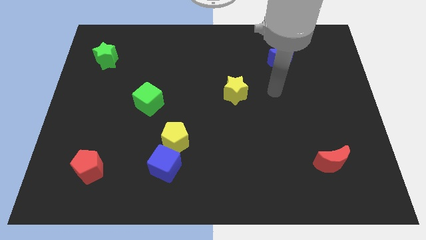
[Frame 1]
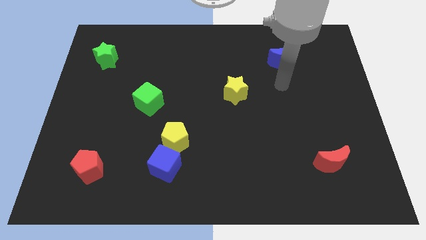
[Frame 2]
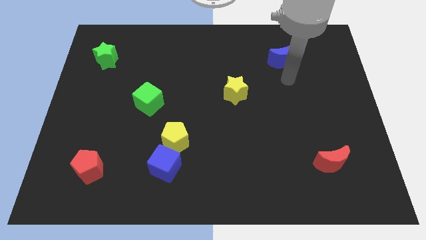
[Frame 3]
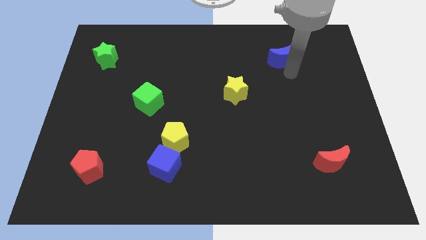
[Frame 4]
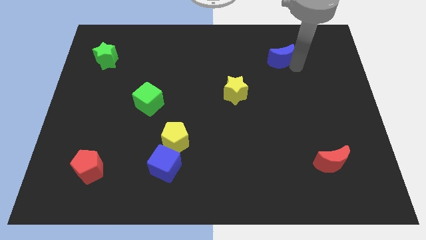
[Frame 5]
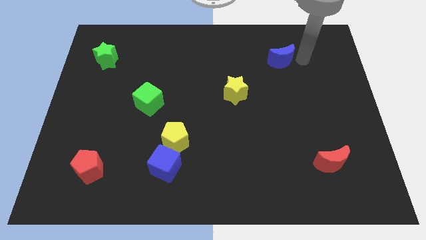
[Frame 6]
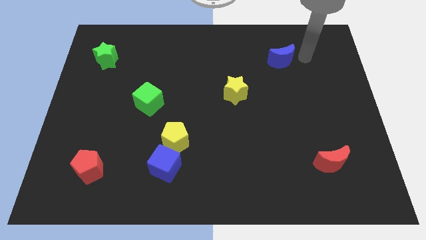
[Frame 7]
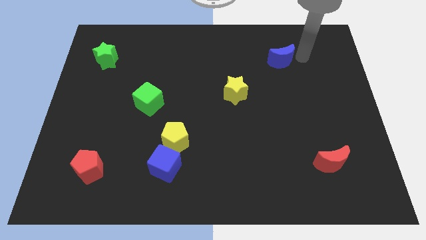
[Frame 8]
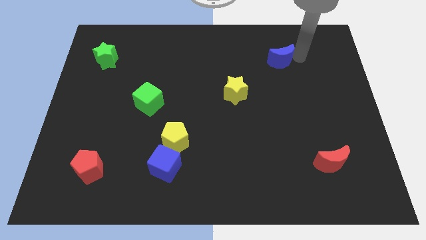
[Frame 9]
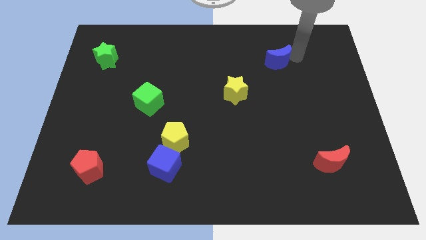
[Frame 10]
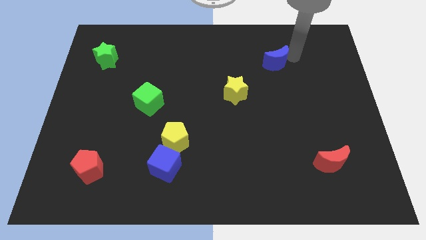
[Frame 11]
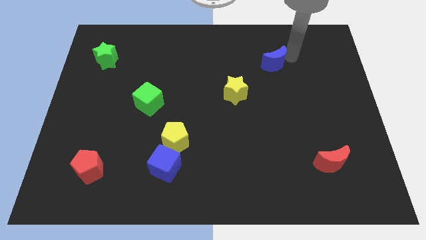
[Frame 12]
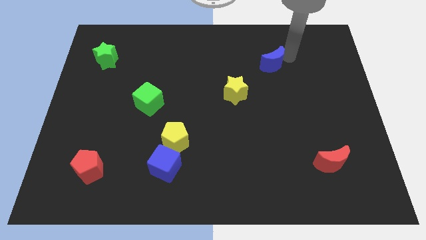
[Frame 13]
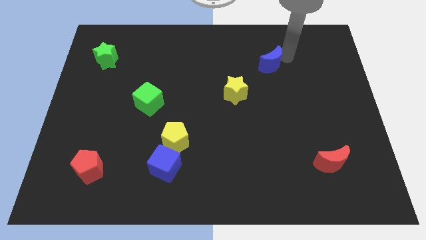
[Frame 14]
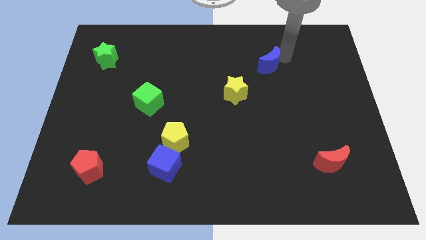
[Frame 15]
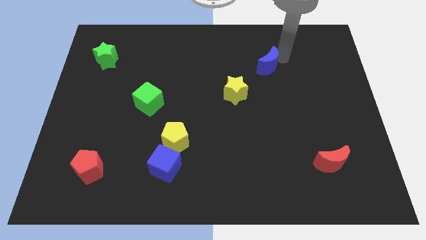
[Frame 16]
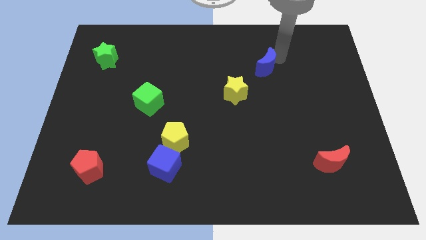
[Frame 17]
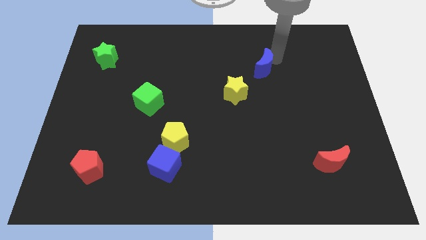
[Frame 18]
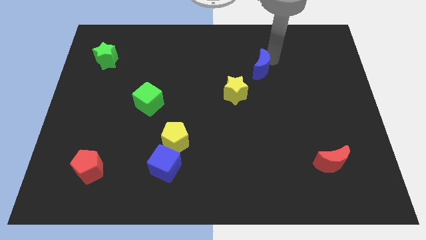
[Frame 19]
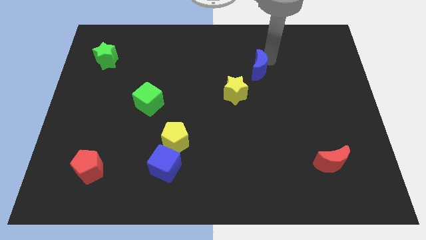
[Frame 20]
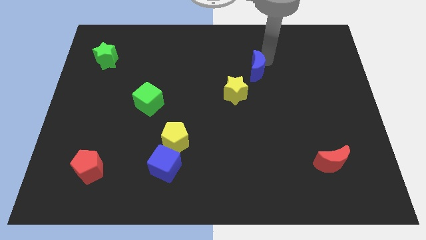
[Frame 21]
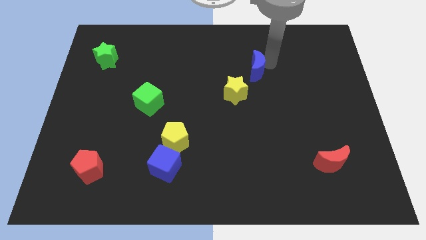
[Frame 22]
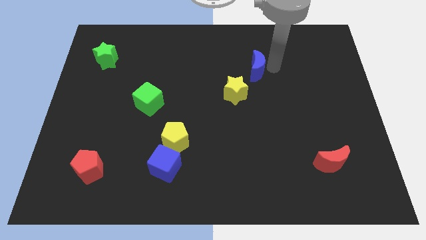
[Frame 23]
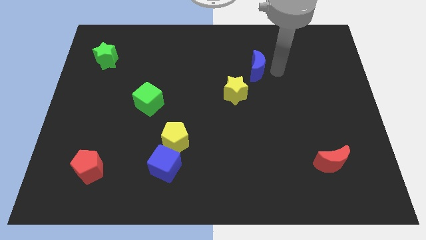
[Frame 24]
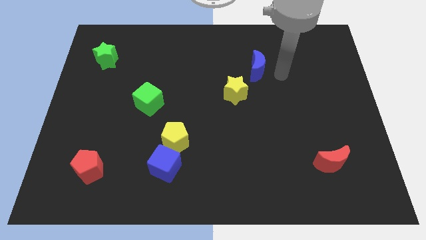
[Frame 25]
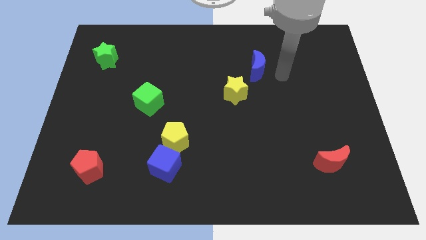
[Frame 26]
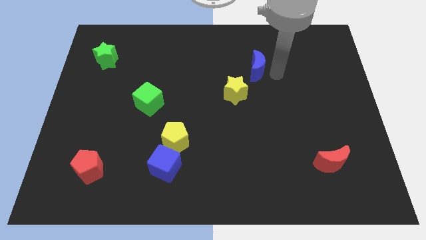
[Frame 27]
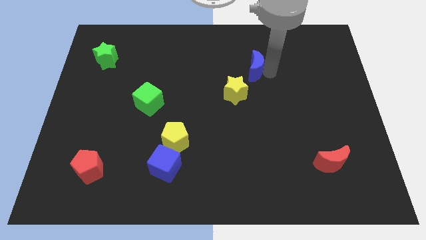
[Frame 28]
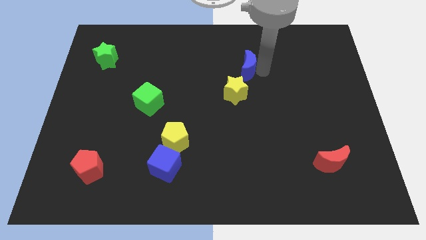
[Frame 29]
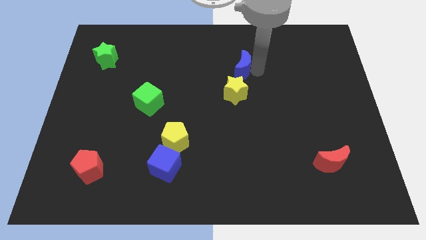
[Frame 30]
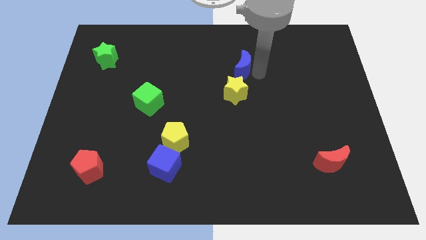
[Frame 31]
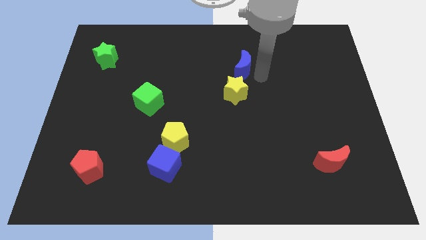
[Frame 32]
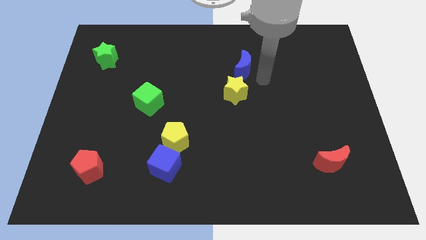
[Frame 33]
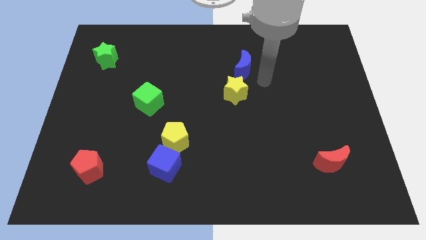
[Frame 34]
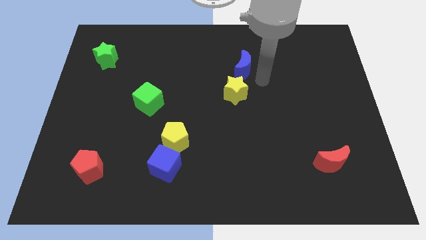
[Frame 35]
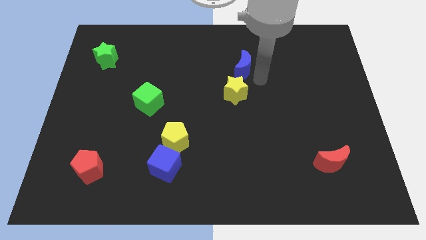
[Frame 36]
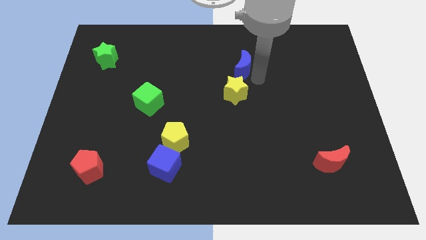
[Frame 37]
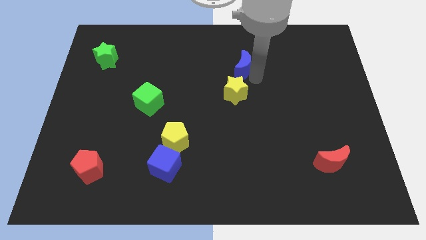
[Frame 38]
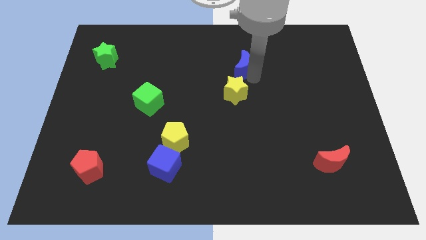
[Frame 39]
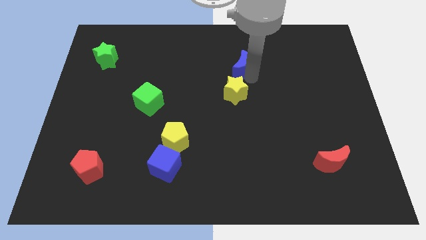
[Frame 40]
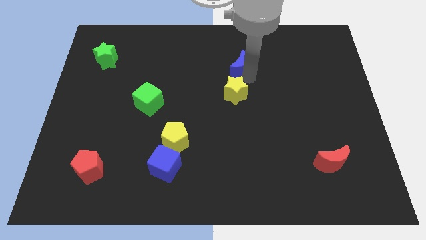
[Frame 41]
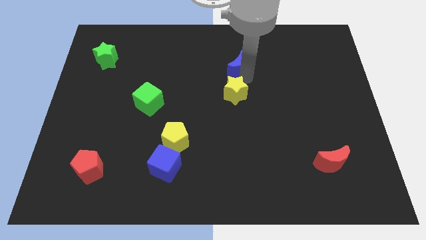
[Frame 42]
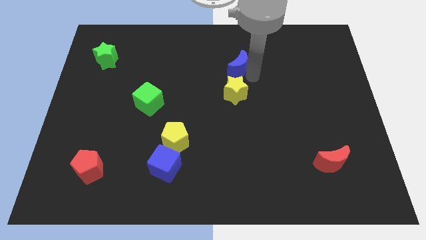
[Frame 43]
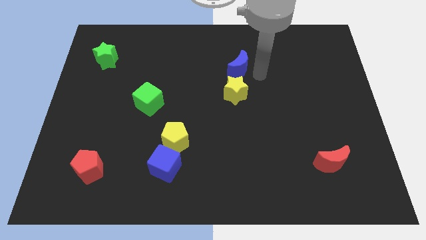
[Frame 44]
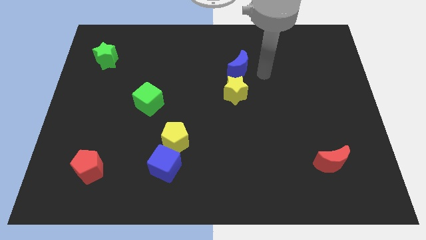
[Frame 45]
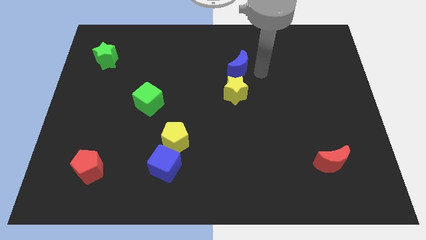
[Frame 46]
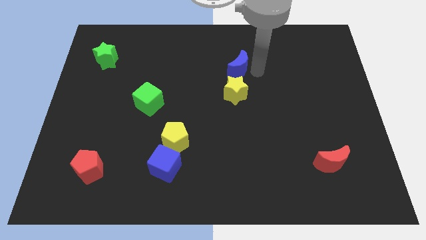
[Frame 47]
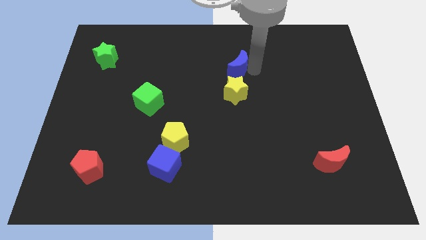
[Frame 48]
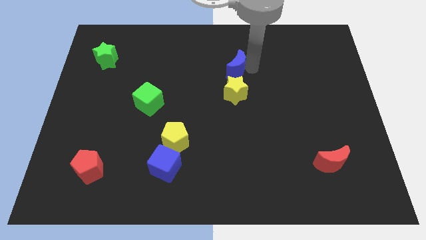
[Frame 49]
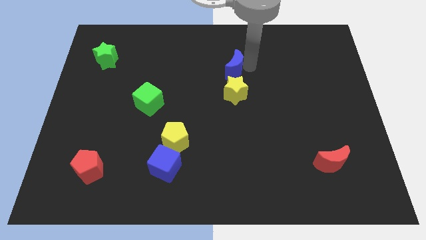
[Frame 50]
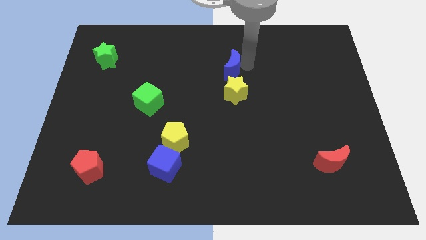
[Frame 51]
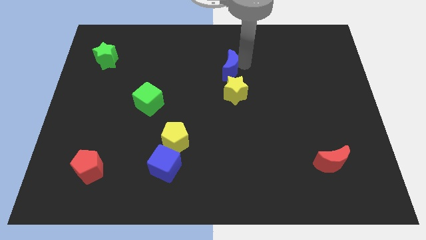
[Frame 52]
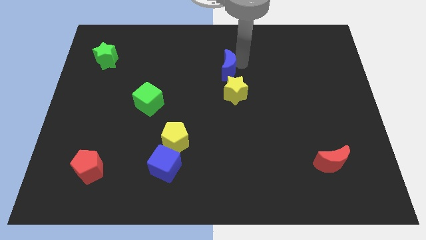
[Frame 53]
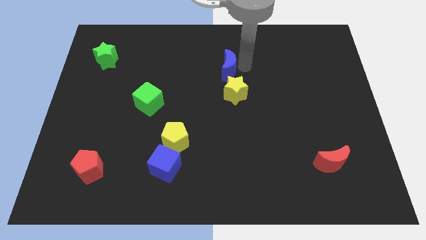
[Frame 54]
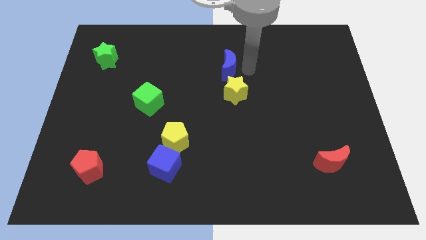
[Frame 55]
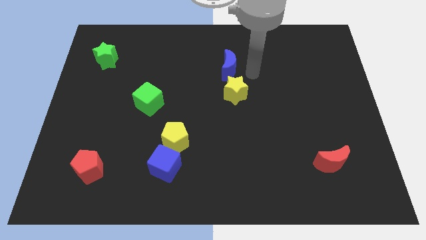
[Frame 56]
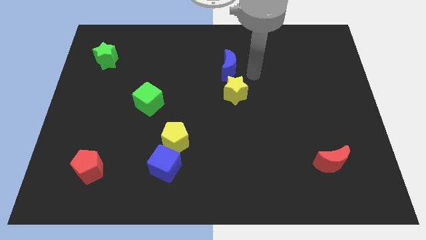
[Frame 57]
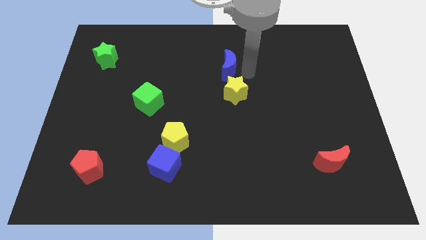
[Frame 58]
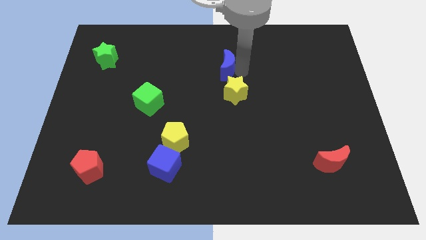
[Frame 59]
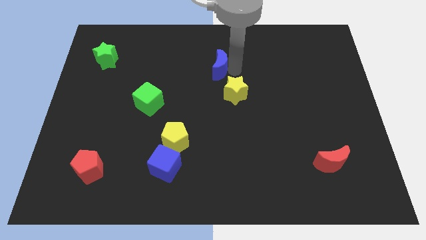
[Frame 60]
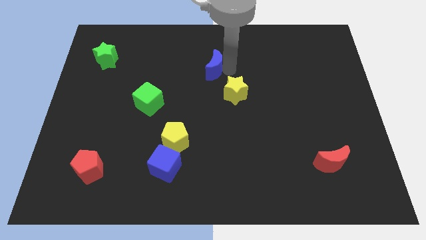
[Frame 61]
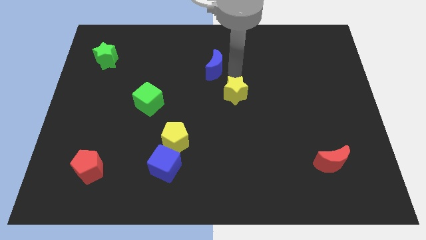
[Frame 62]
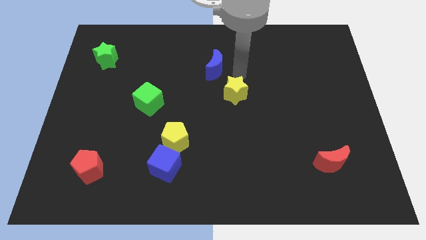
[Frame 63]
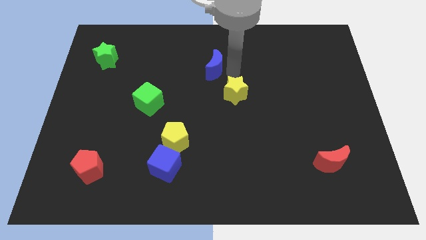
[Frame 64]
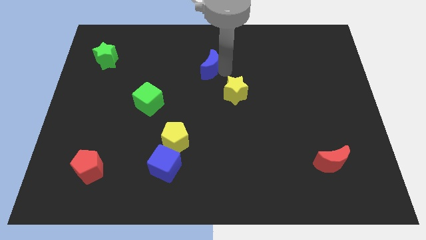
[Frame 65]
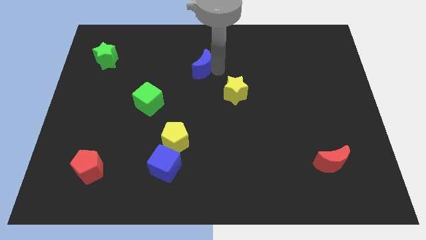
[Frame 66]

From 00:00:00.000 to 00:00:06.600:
slide the blue moon to the left

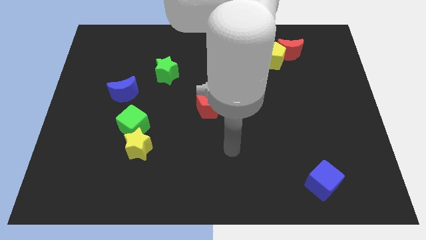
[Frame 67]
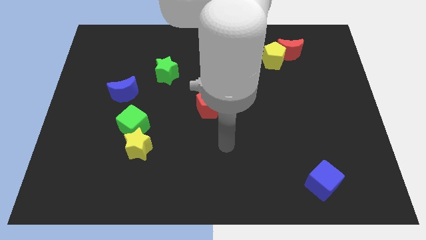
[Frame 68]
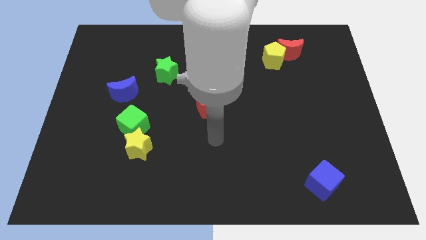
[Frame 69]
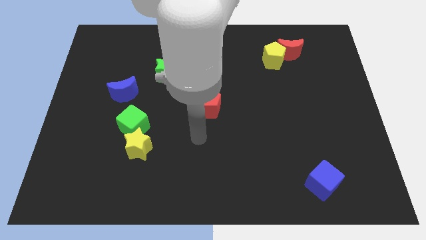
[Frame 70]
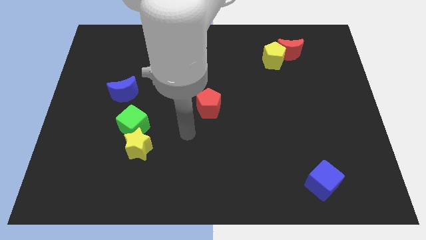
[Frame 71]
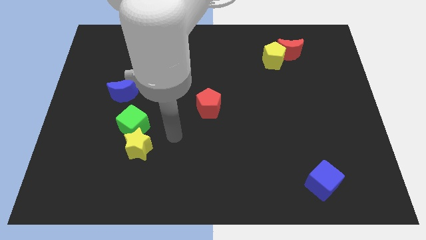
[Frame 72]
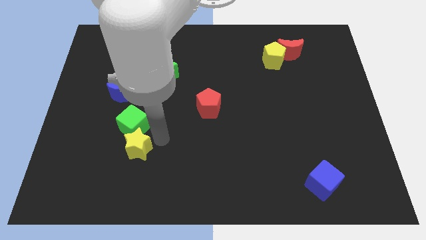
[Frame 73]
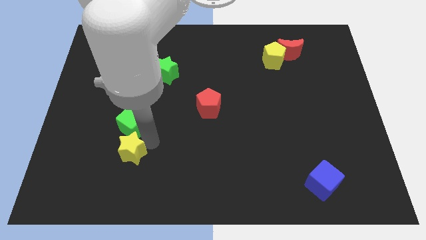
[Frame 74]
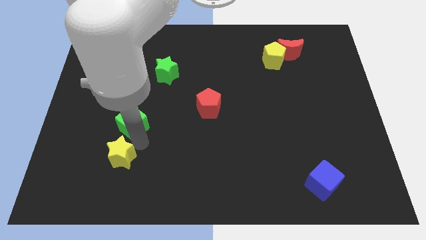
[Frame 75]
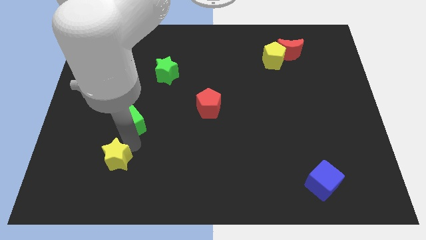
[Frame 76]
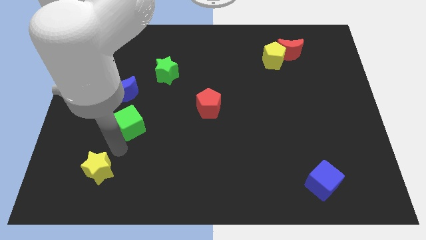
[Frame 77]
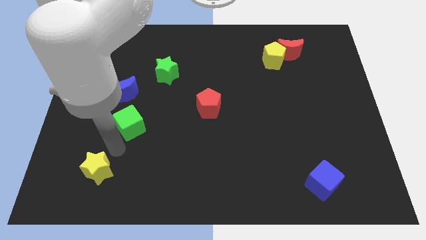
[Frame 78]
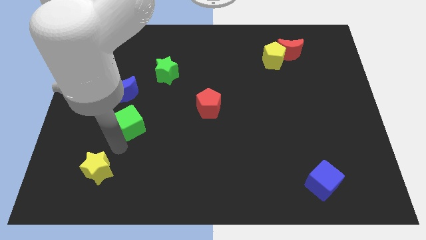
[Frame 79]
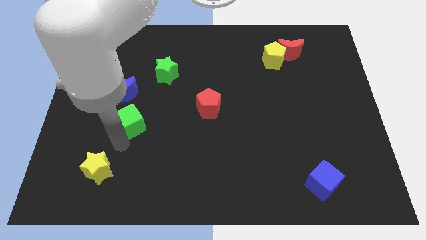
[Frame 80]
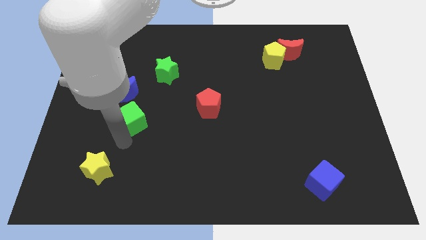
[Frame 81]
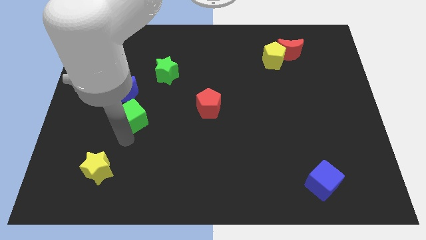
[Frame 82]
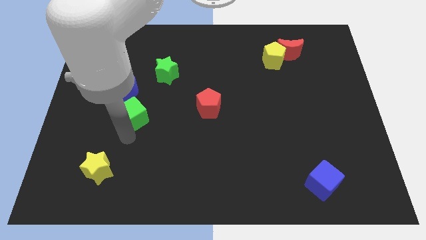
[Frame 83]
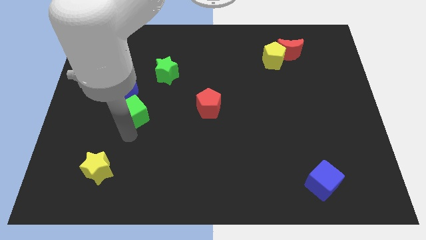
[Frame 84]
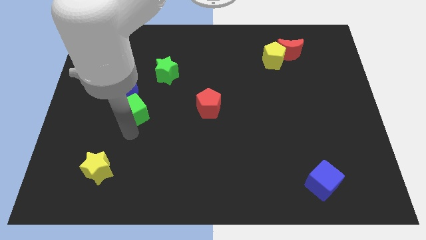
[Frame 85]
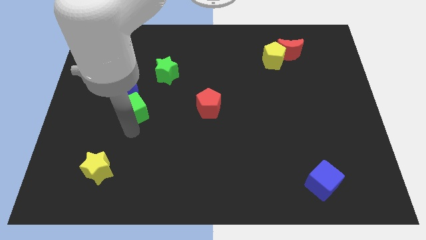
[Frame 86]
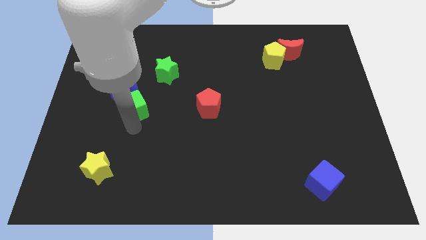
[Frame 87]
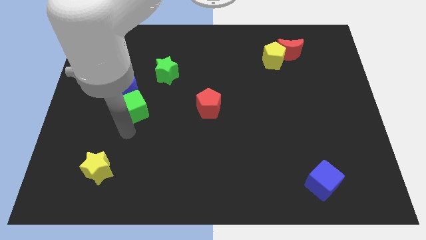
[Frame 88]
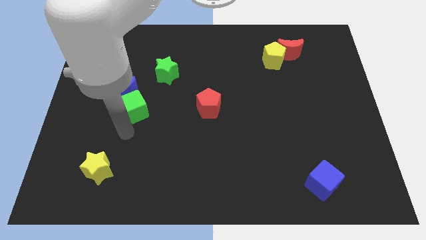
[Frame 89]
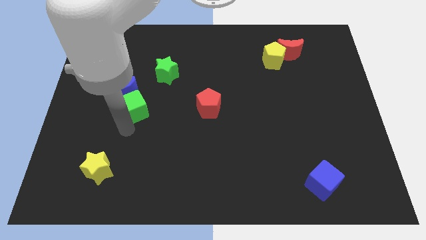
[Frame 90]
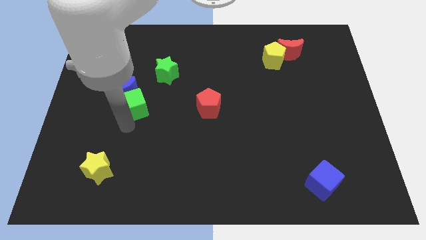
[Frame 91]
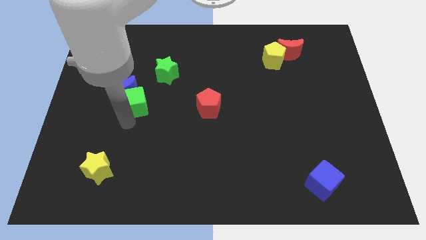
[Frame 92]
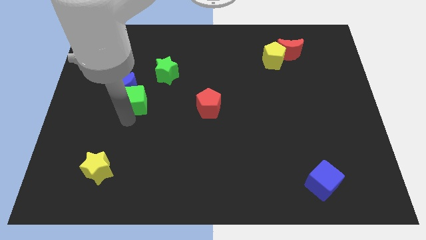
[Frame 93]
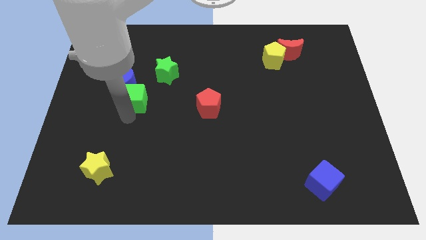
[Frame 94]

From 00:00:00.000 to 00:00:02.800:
slightly move the green cube up
